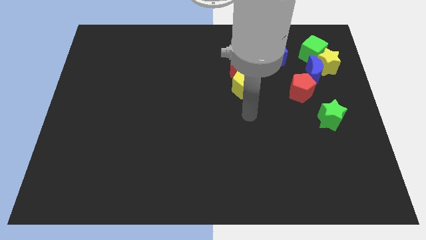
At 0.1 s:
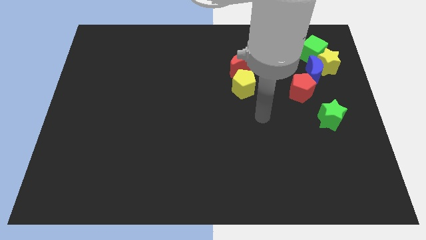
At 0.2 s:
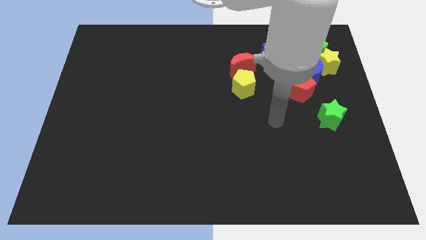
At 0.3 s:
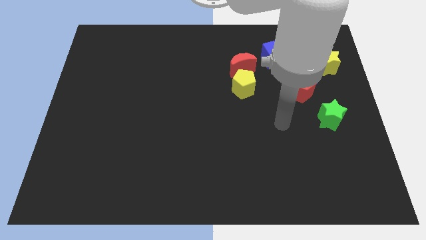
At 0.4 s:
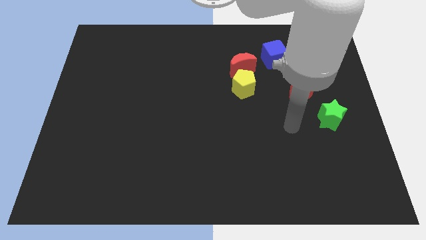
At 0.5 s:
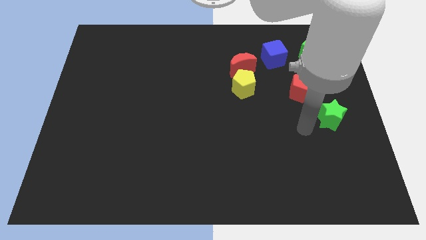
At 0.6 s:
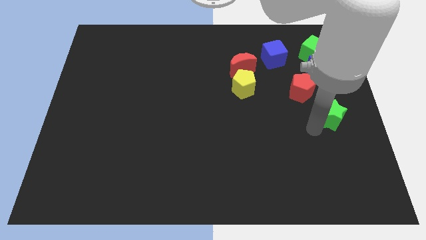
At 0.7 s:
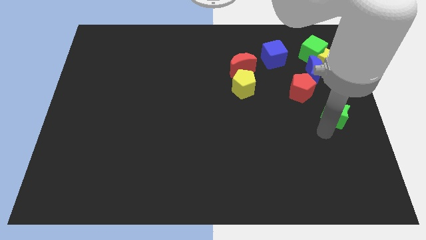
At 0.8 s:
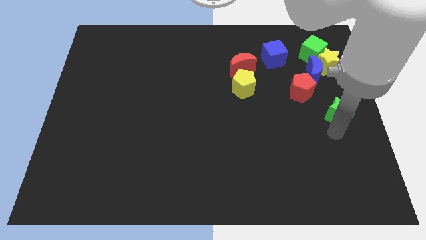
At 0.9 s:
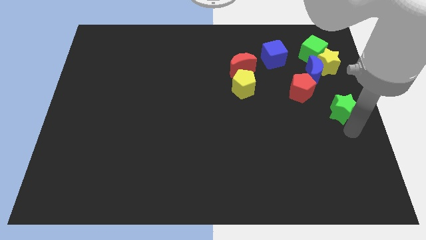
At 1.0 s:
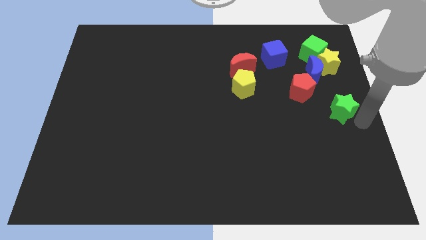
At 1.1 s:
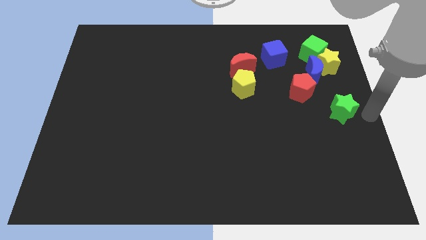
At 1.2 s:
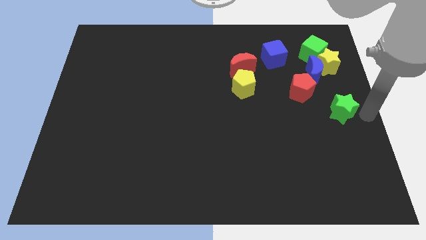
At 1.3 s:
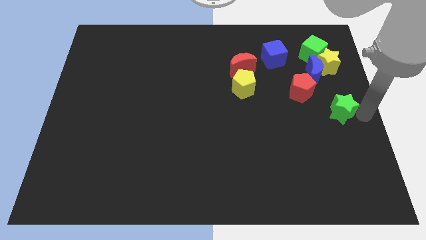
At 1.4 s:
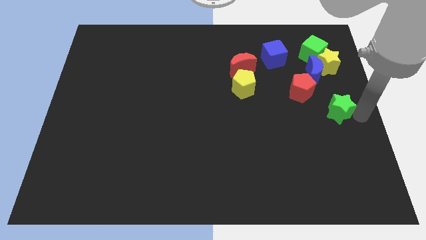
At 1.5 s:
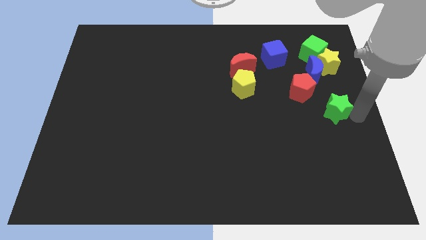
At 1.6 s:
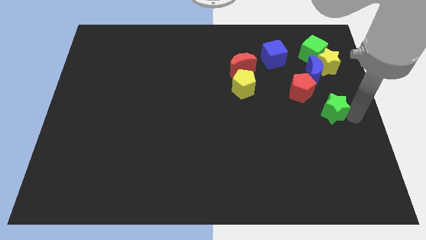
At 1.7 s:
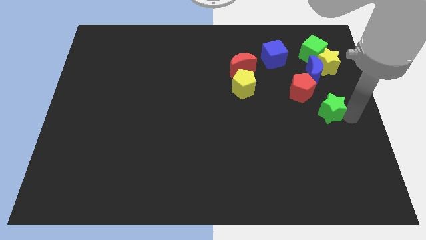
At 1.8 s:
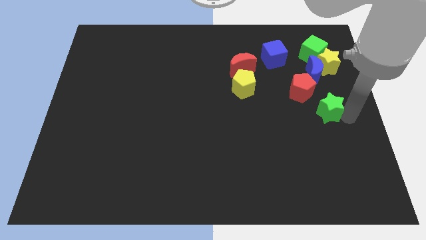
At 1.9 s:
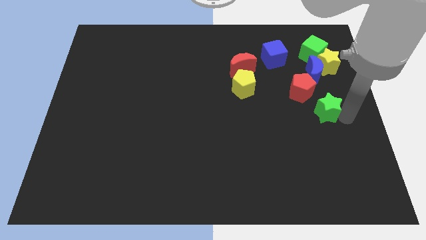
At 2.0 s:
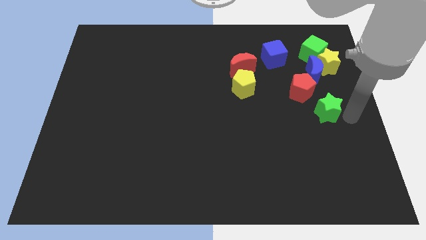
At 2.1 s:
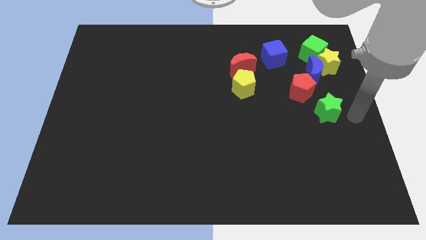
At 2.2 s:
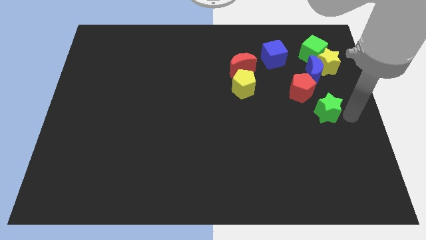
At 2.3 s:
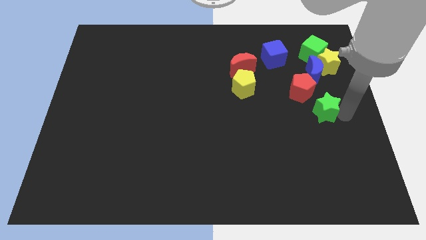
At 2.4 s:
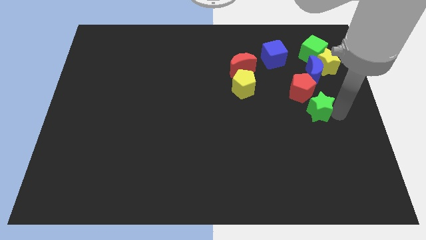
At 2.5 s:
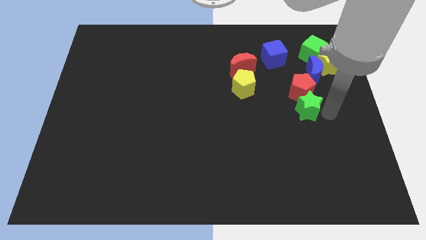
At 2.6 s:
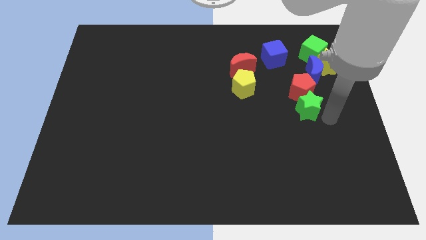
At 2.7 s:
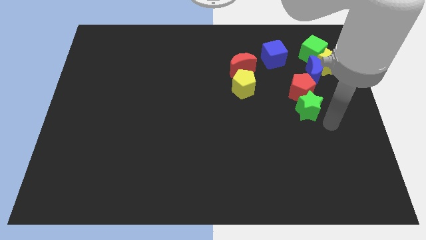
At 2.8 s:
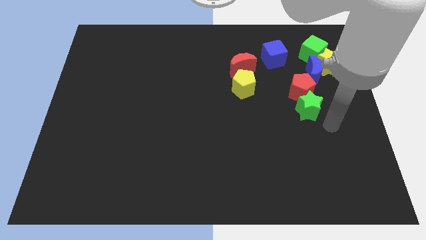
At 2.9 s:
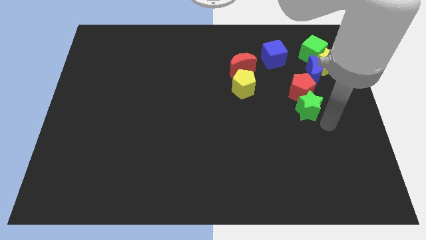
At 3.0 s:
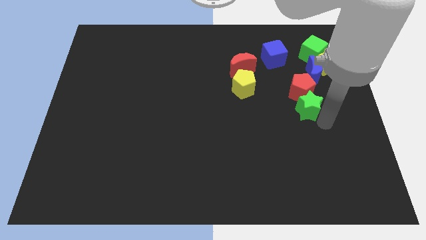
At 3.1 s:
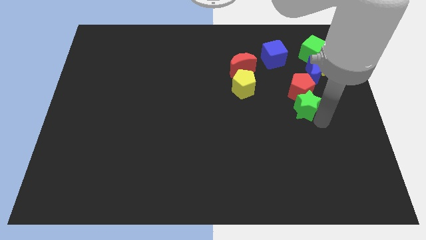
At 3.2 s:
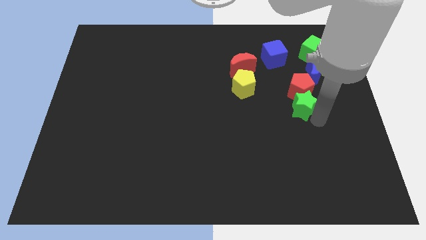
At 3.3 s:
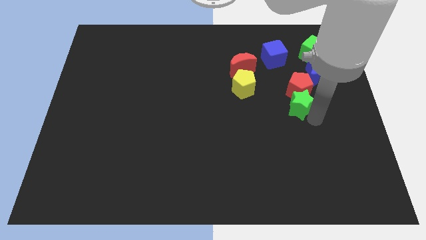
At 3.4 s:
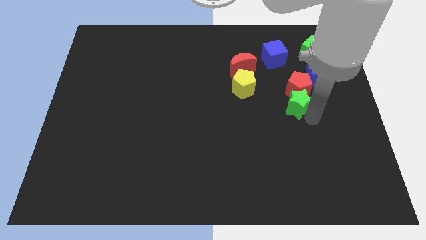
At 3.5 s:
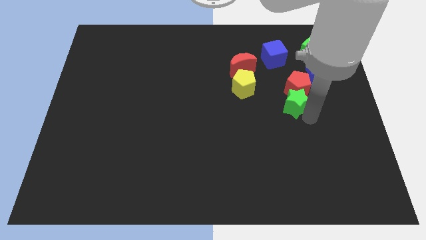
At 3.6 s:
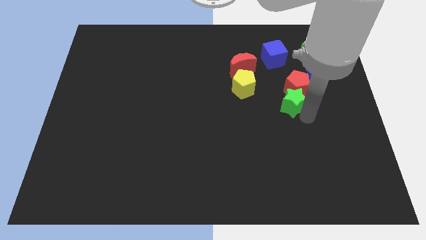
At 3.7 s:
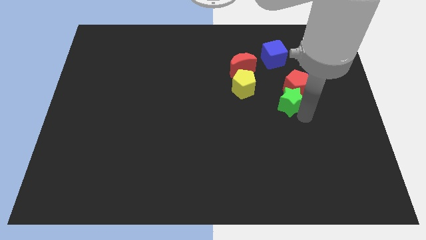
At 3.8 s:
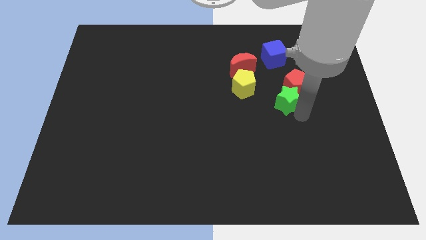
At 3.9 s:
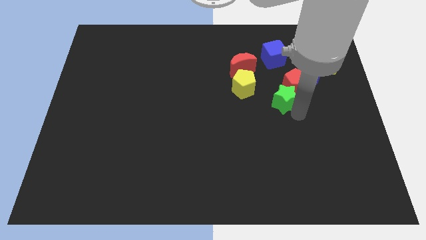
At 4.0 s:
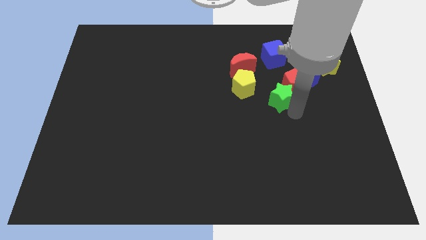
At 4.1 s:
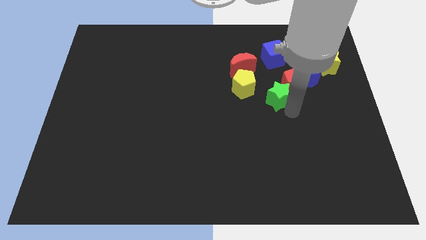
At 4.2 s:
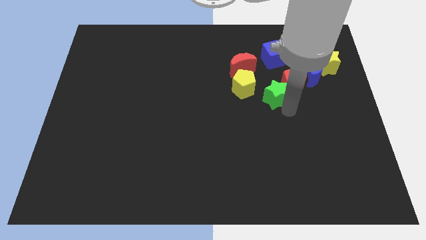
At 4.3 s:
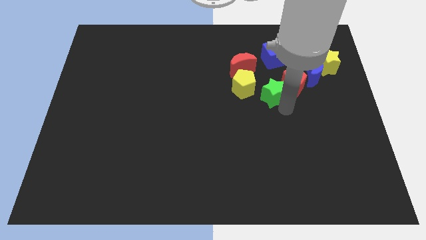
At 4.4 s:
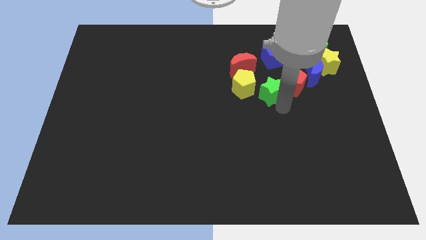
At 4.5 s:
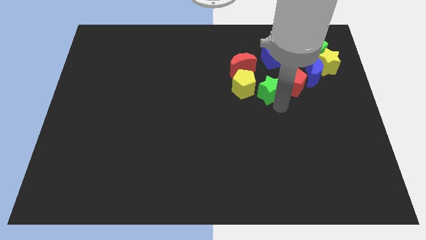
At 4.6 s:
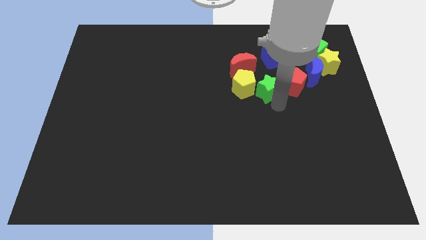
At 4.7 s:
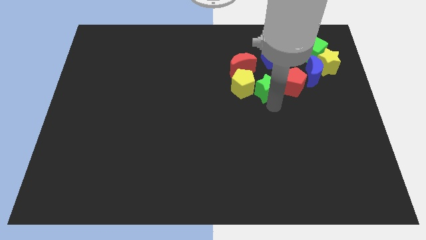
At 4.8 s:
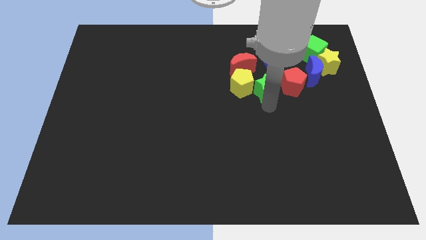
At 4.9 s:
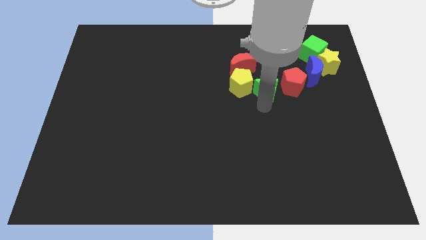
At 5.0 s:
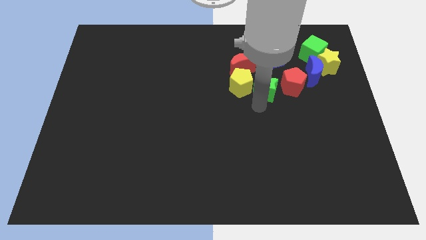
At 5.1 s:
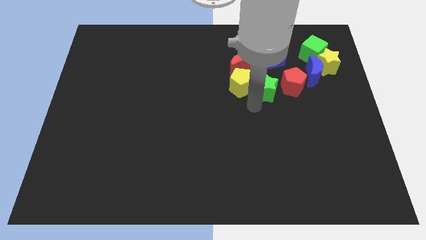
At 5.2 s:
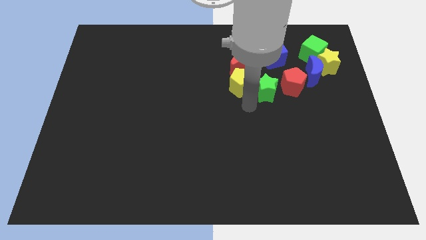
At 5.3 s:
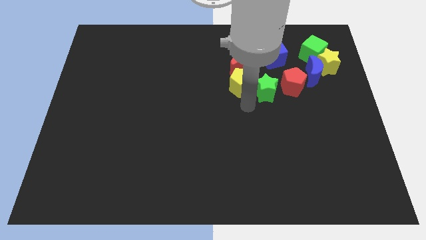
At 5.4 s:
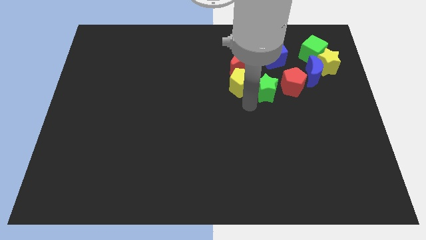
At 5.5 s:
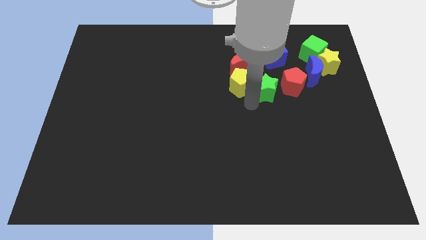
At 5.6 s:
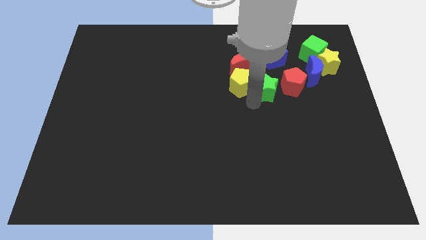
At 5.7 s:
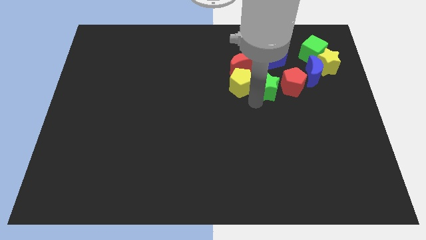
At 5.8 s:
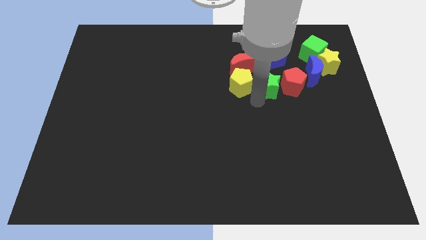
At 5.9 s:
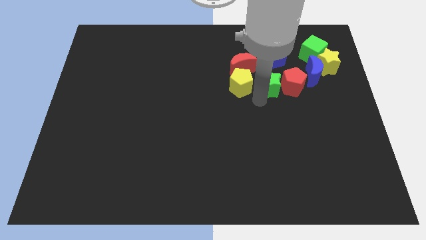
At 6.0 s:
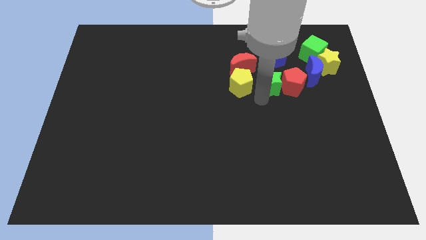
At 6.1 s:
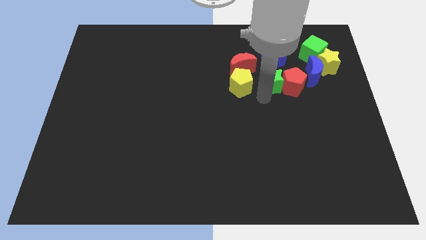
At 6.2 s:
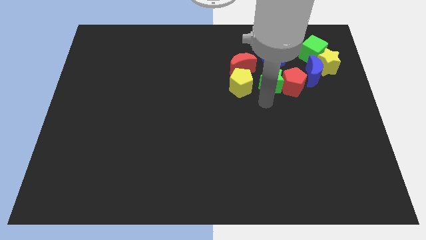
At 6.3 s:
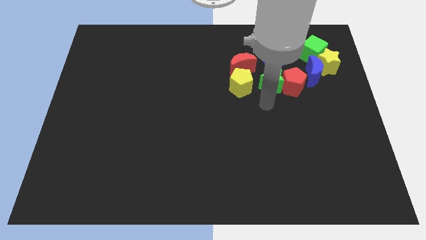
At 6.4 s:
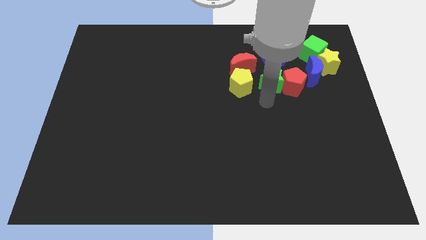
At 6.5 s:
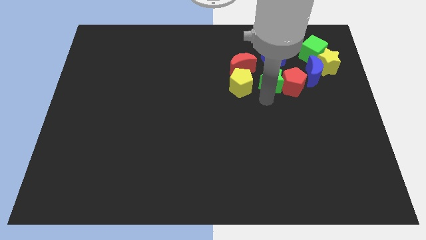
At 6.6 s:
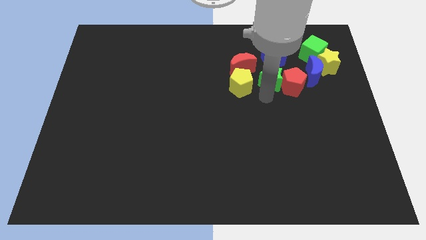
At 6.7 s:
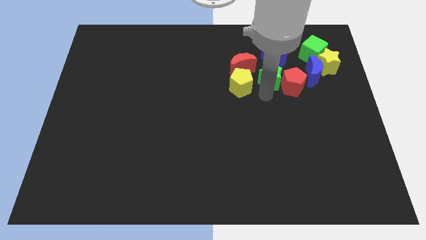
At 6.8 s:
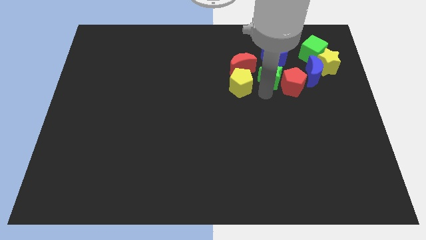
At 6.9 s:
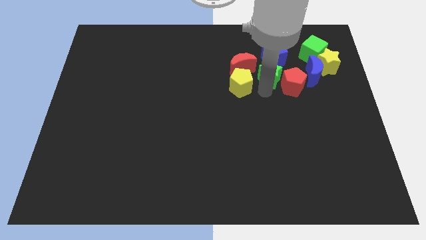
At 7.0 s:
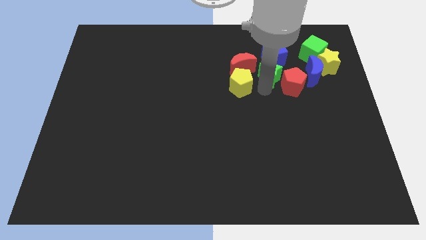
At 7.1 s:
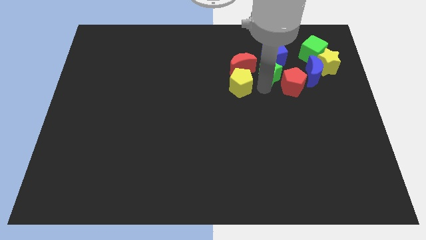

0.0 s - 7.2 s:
move the green star next to the blue cube
